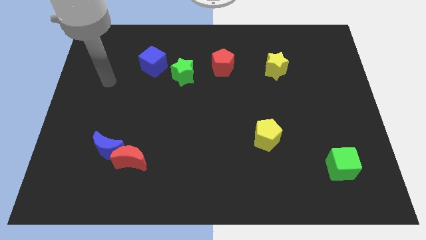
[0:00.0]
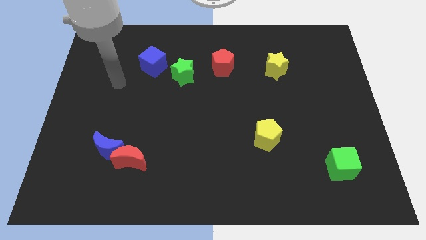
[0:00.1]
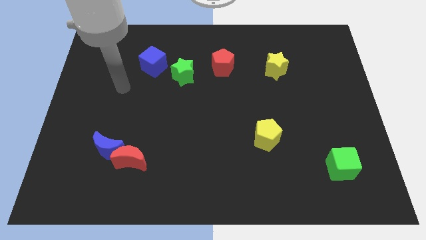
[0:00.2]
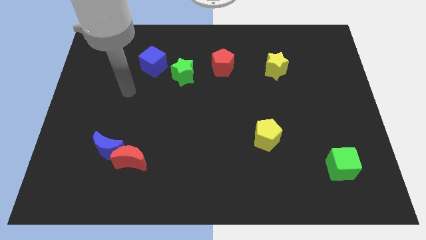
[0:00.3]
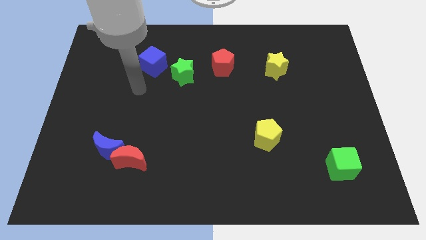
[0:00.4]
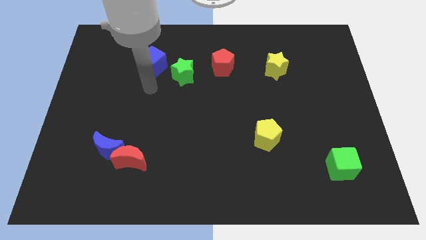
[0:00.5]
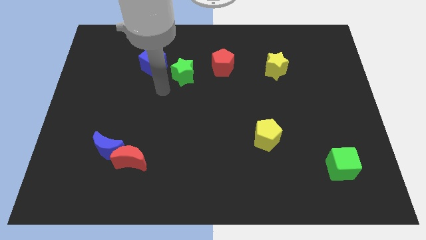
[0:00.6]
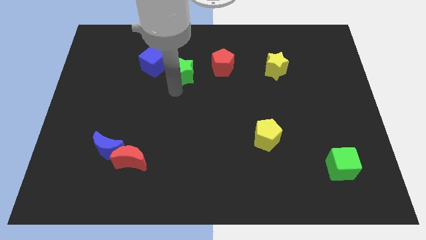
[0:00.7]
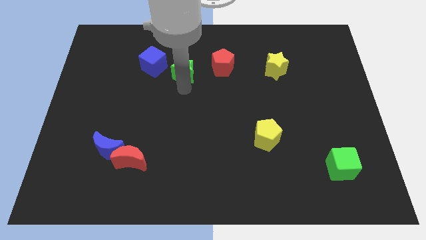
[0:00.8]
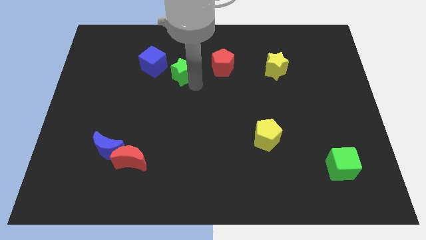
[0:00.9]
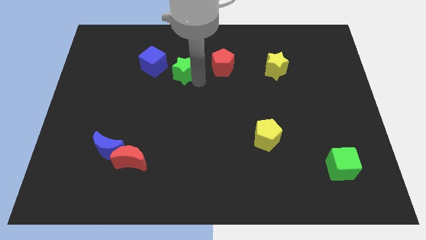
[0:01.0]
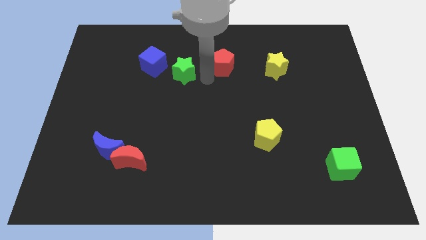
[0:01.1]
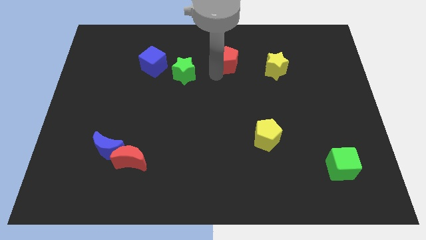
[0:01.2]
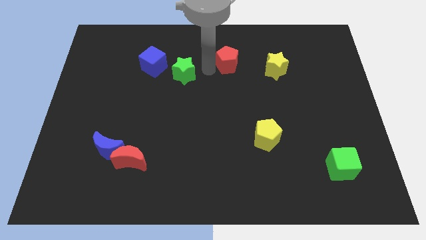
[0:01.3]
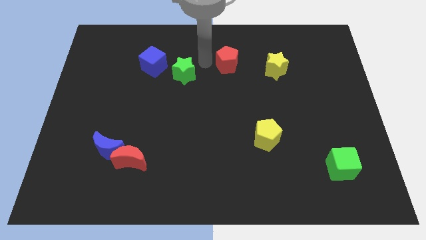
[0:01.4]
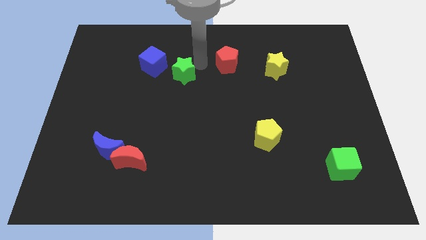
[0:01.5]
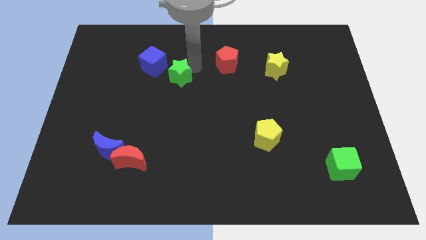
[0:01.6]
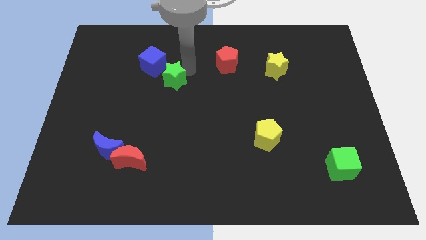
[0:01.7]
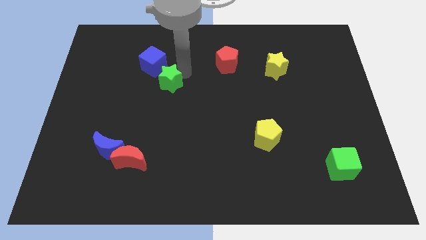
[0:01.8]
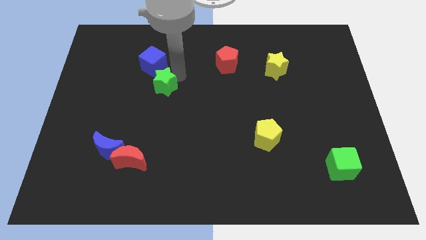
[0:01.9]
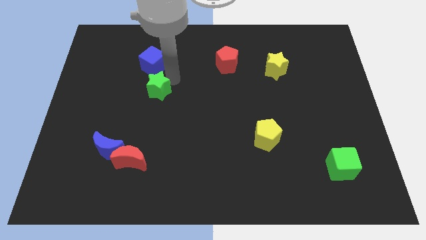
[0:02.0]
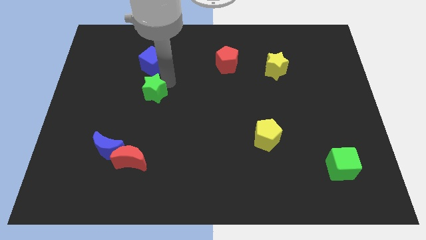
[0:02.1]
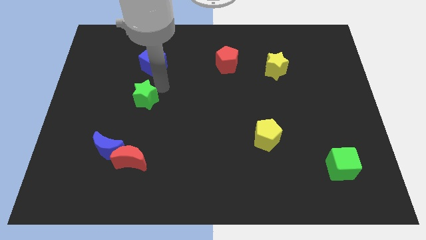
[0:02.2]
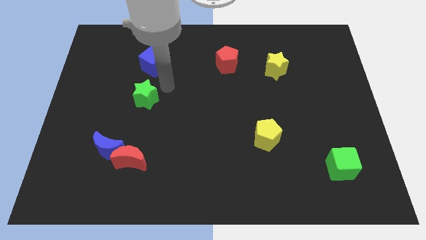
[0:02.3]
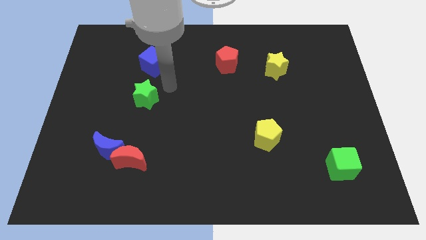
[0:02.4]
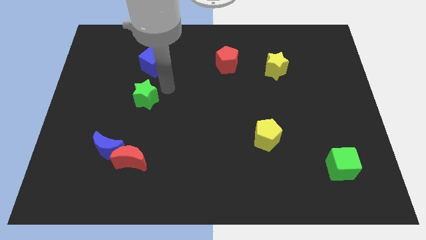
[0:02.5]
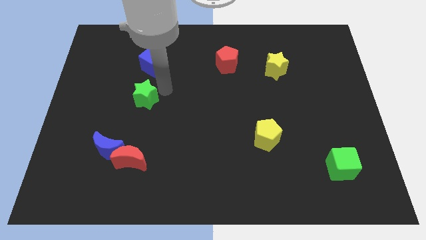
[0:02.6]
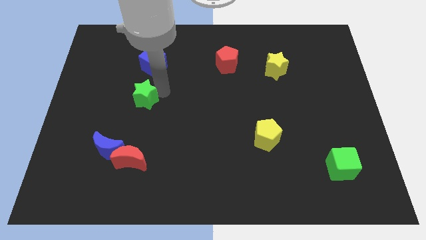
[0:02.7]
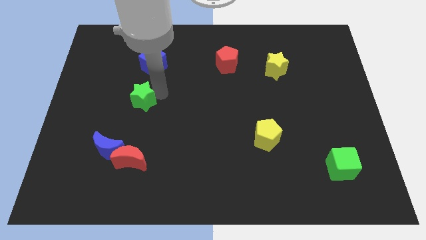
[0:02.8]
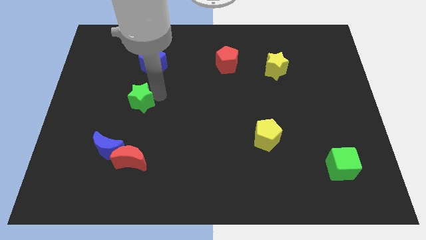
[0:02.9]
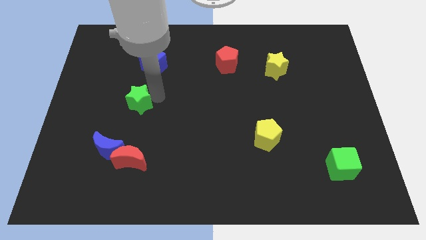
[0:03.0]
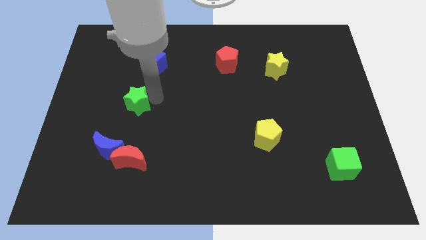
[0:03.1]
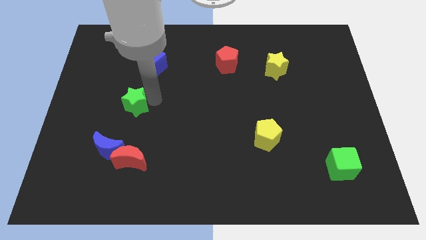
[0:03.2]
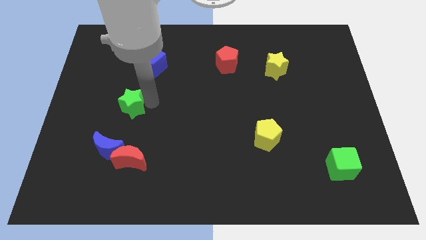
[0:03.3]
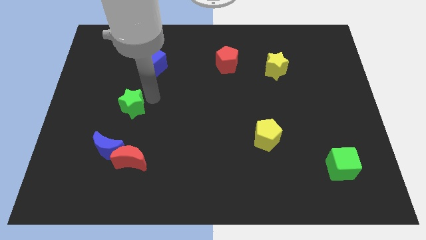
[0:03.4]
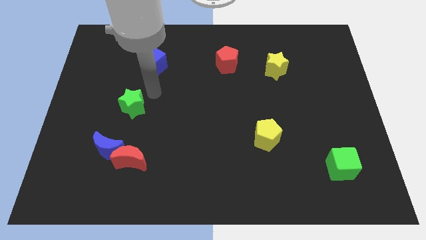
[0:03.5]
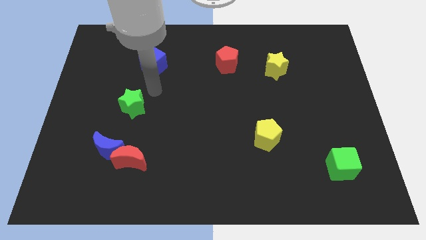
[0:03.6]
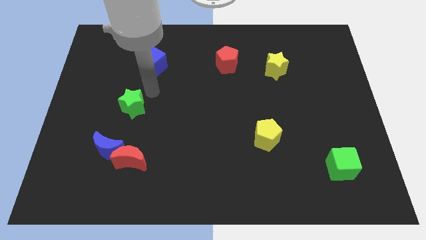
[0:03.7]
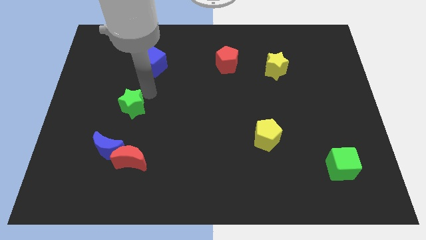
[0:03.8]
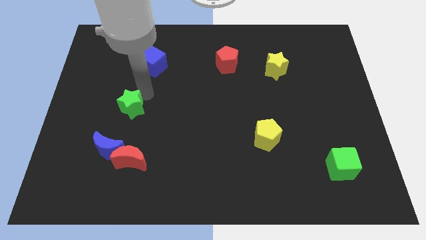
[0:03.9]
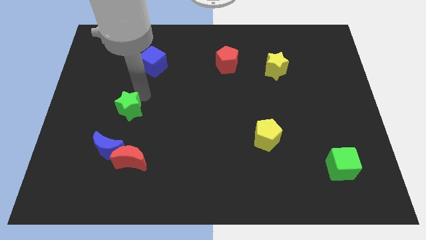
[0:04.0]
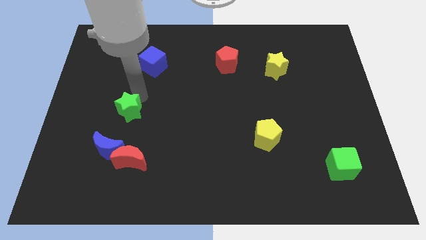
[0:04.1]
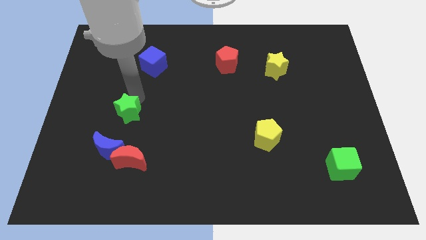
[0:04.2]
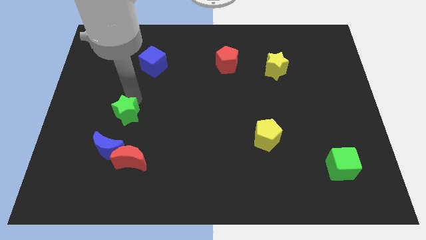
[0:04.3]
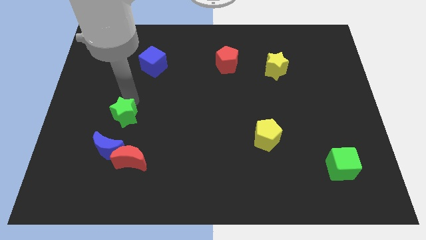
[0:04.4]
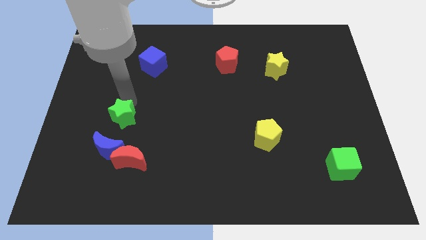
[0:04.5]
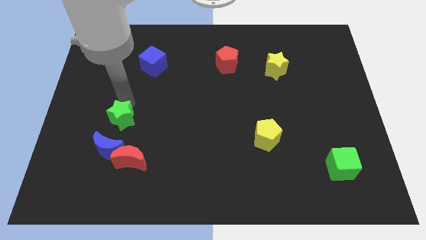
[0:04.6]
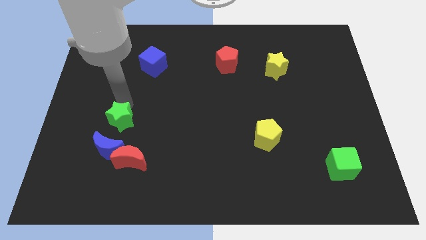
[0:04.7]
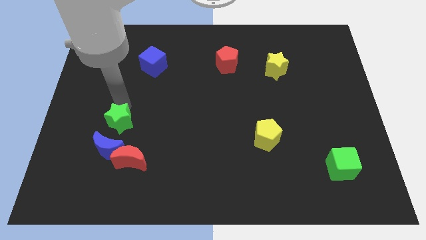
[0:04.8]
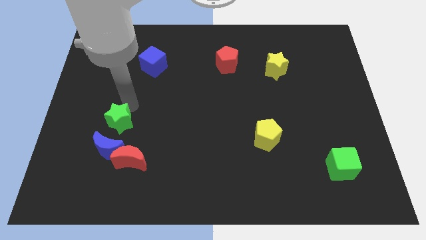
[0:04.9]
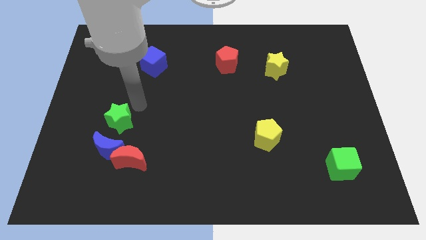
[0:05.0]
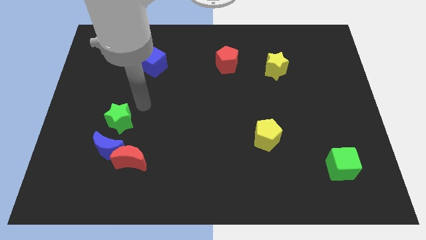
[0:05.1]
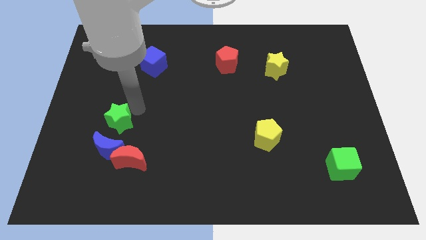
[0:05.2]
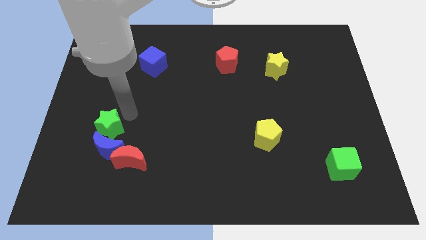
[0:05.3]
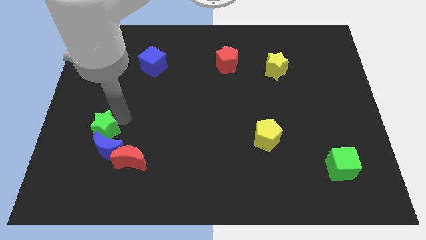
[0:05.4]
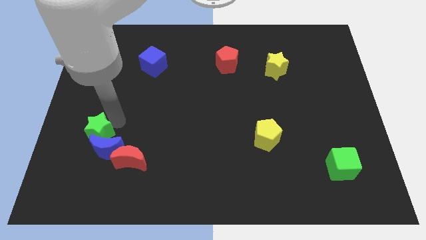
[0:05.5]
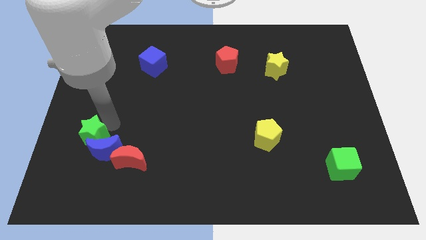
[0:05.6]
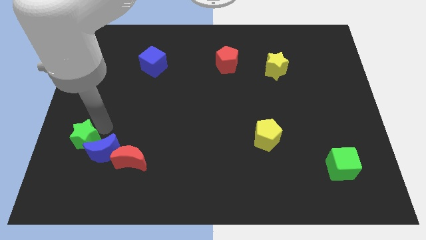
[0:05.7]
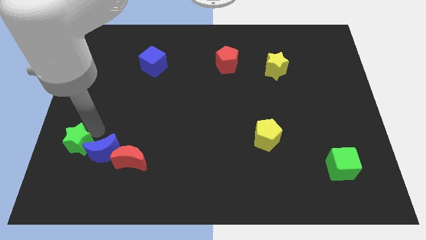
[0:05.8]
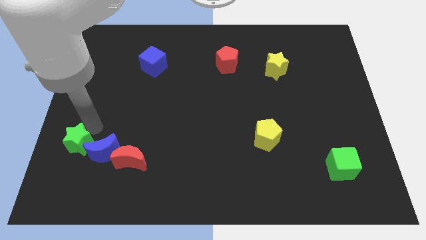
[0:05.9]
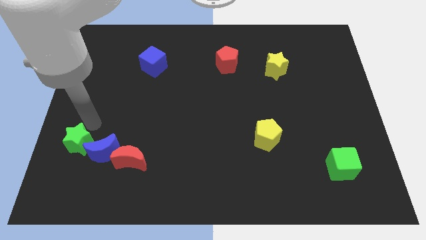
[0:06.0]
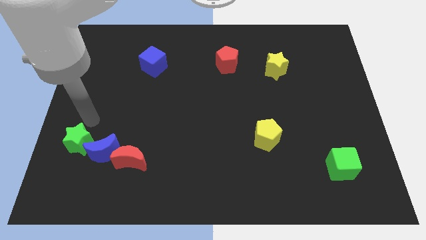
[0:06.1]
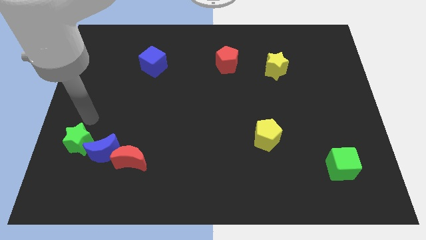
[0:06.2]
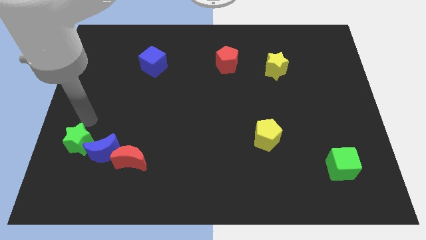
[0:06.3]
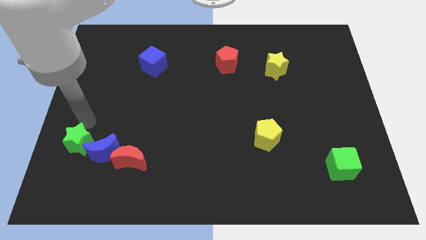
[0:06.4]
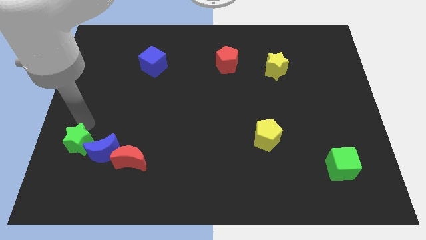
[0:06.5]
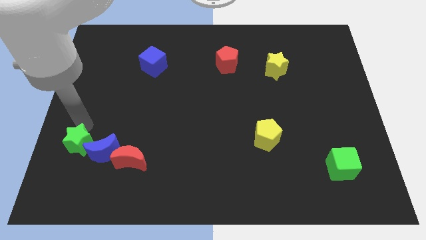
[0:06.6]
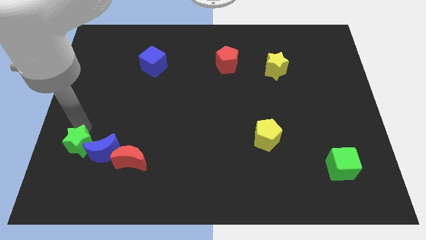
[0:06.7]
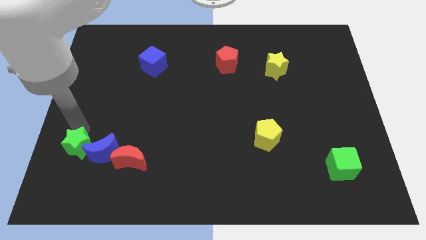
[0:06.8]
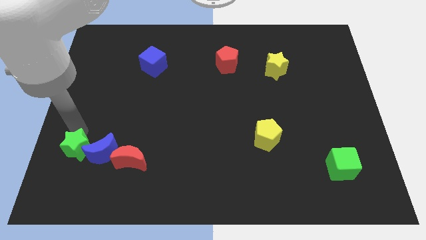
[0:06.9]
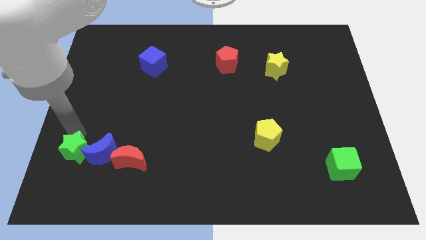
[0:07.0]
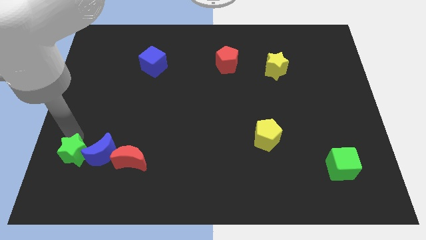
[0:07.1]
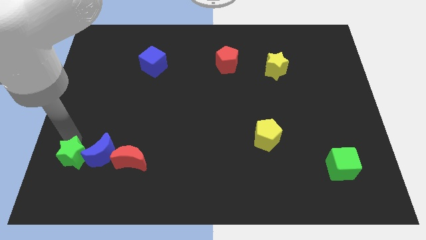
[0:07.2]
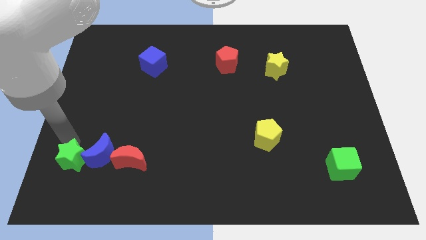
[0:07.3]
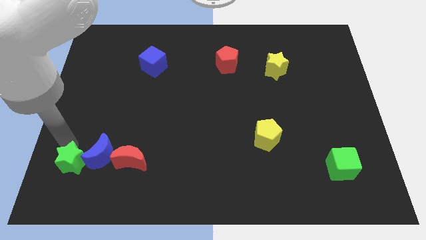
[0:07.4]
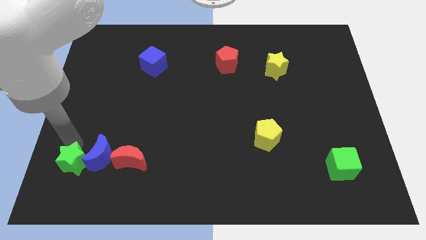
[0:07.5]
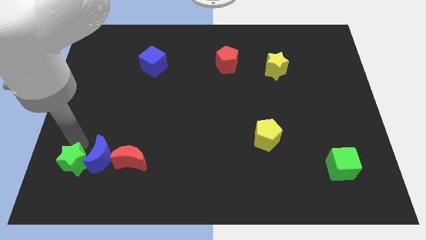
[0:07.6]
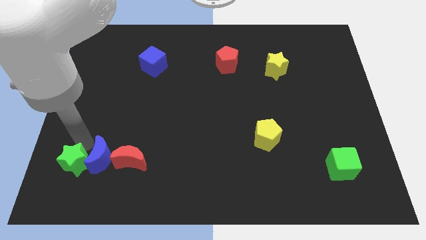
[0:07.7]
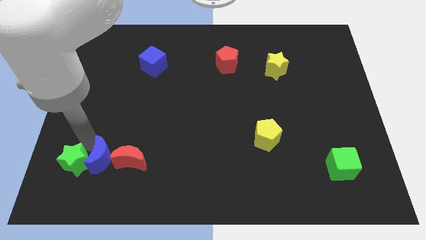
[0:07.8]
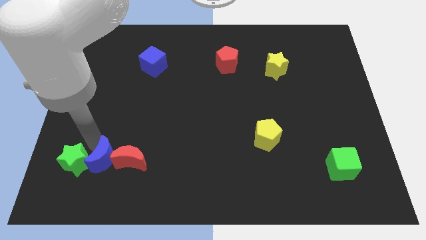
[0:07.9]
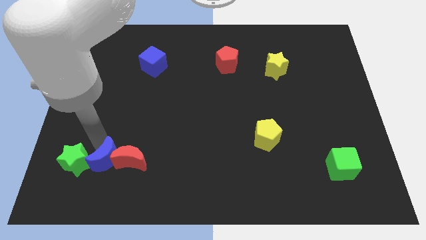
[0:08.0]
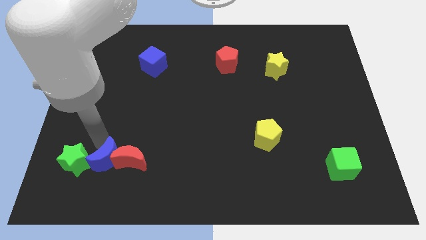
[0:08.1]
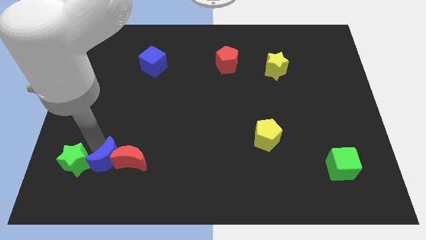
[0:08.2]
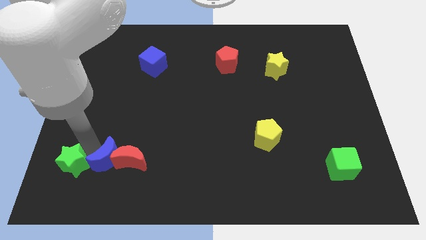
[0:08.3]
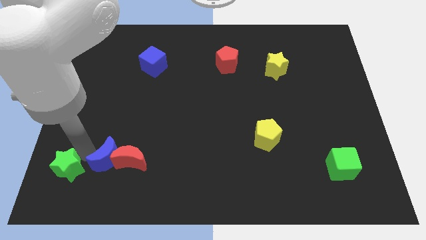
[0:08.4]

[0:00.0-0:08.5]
move the green star to the bottom left corner
